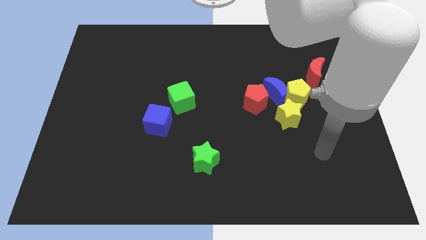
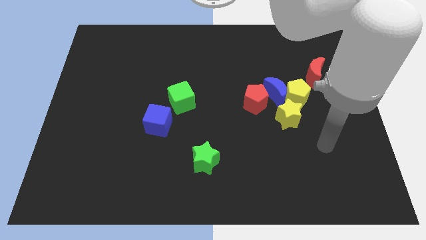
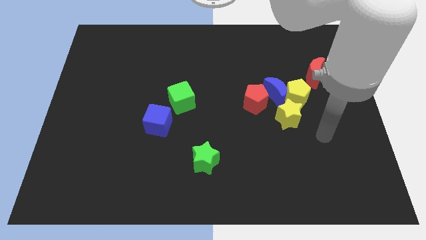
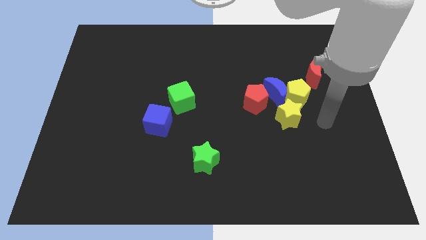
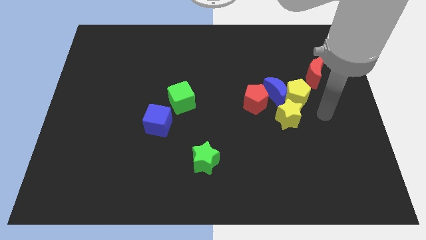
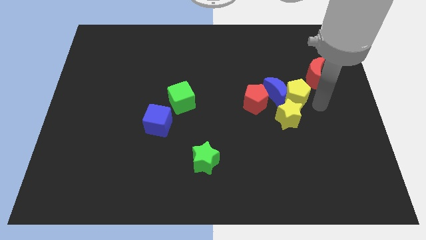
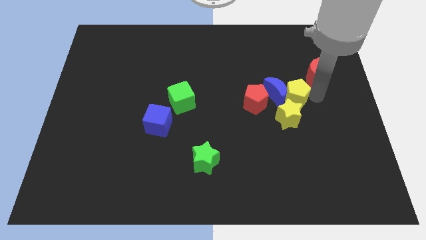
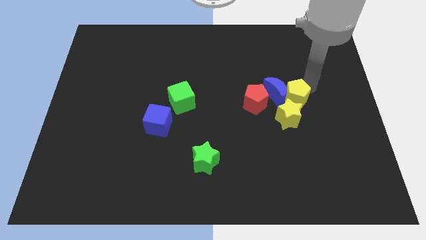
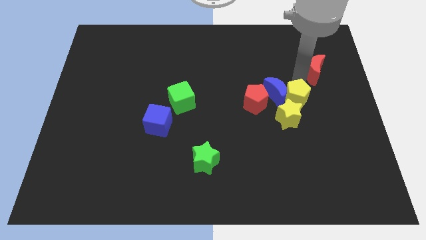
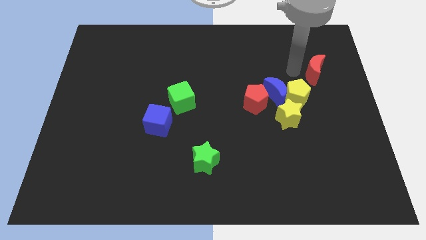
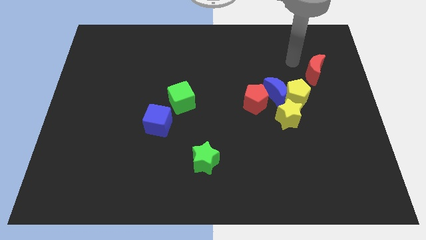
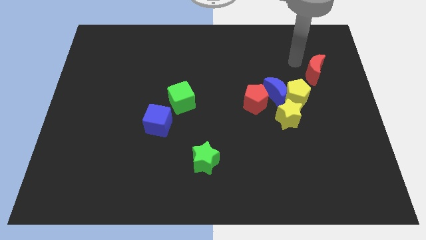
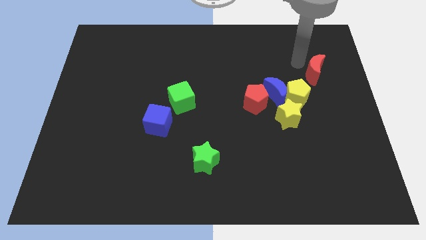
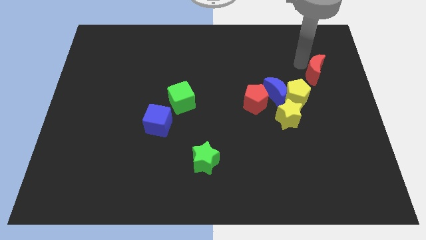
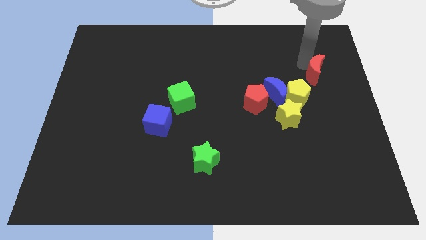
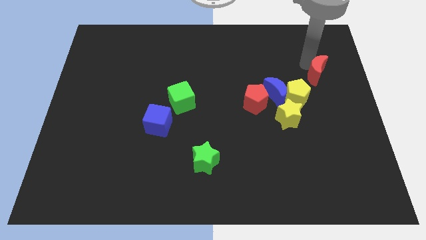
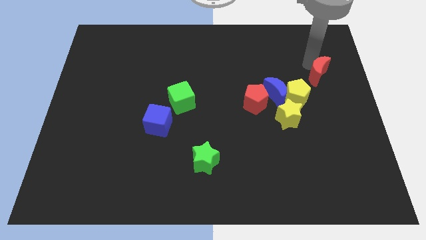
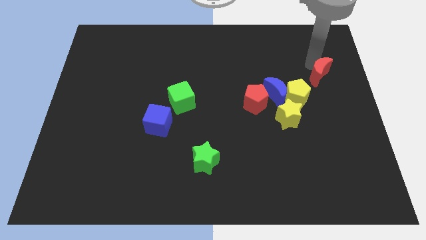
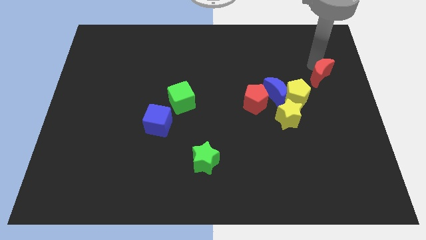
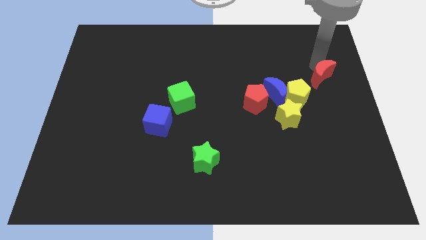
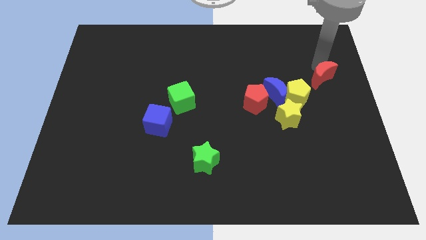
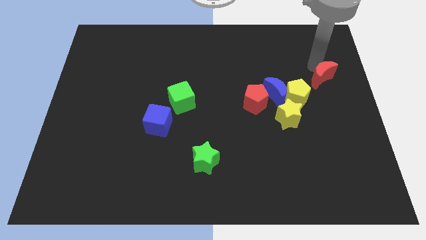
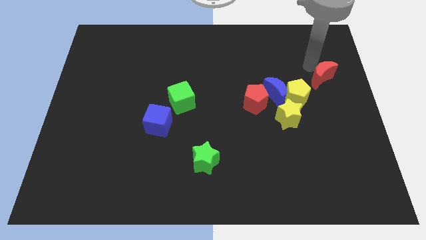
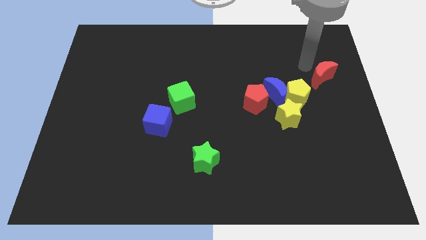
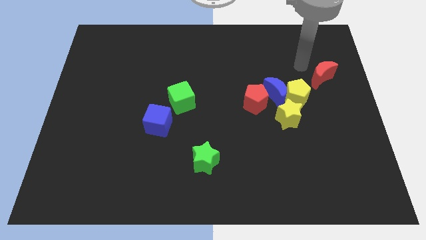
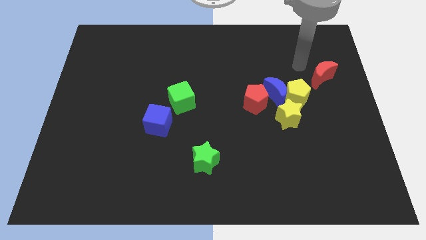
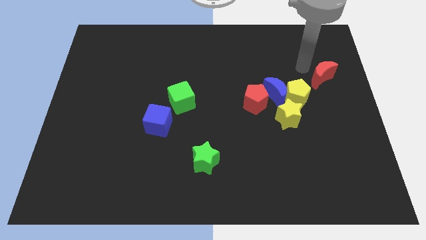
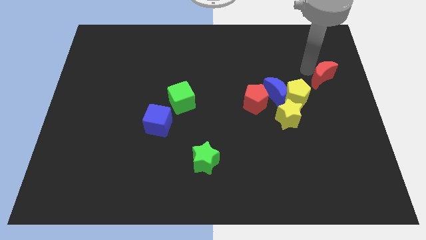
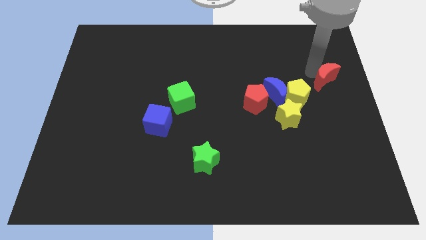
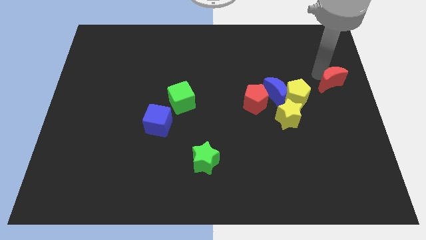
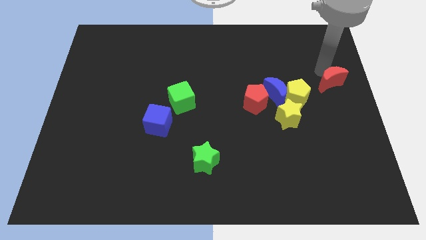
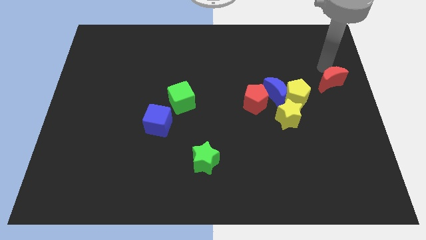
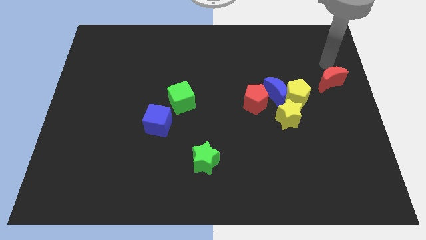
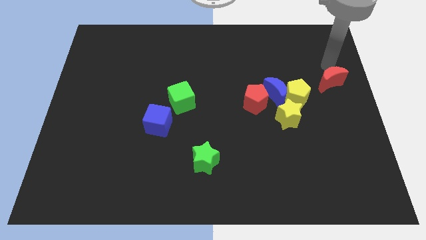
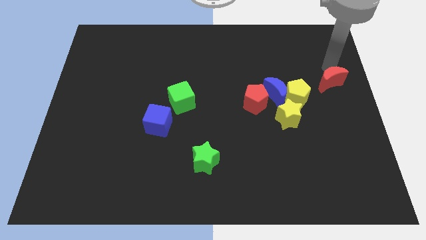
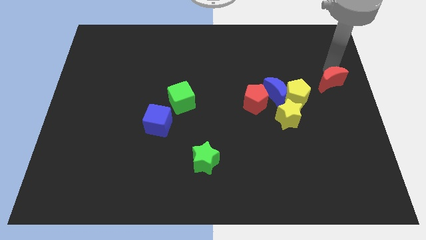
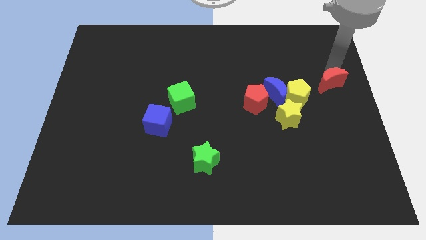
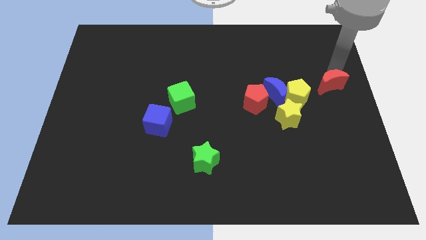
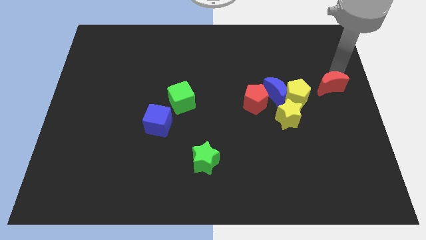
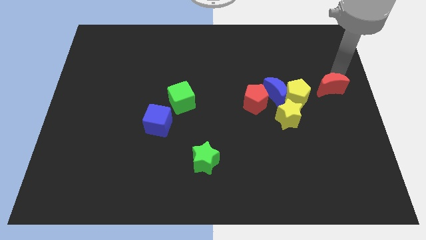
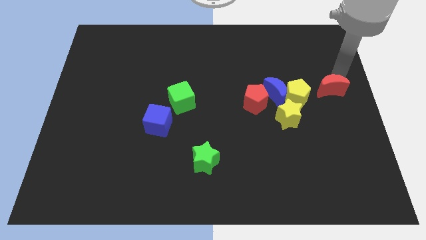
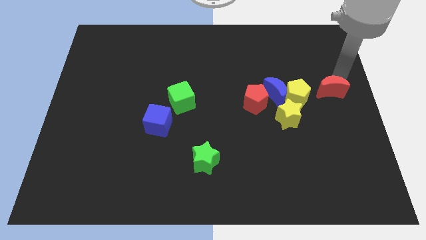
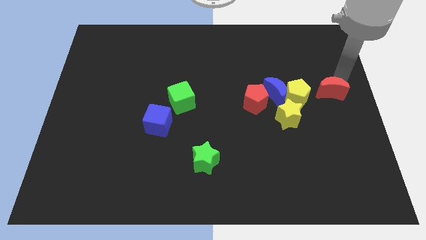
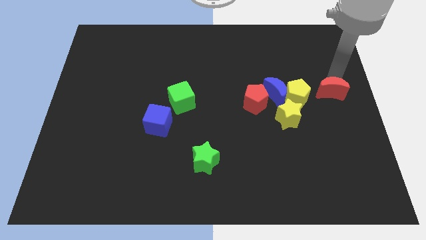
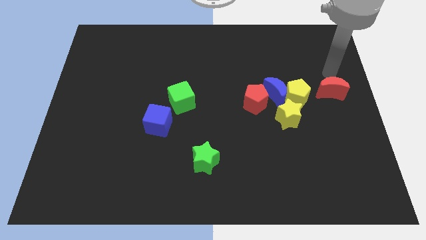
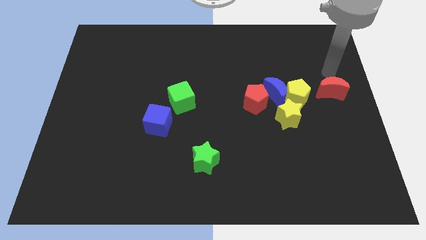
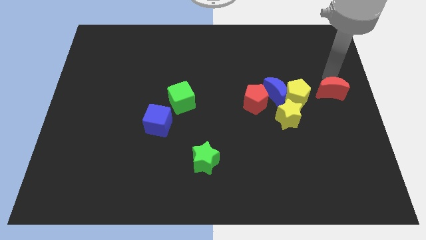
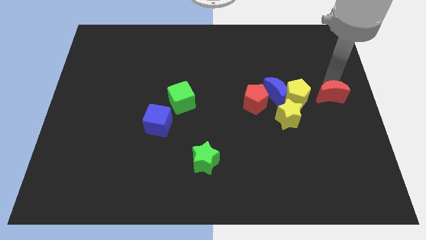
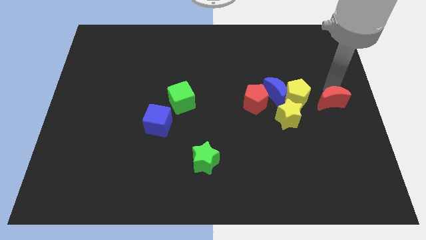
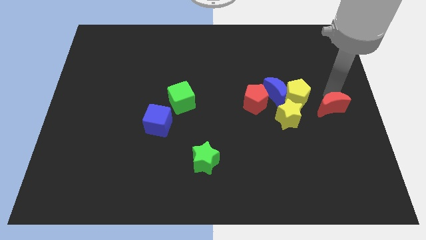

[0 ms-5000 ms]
put the red moon right of the yellow star

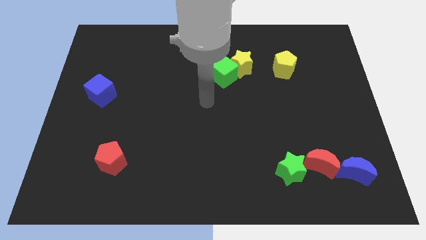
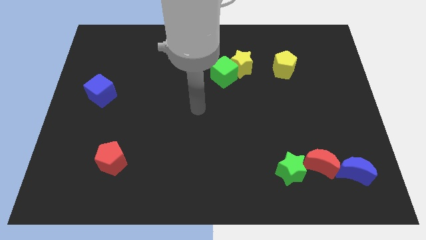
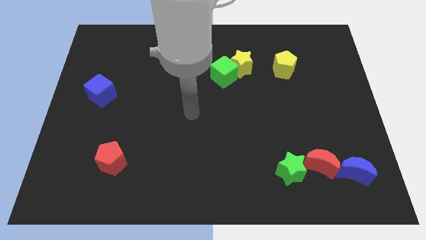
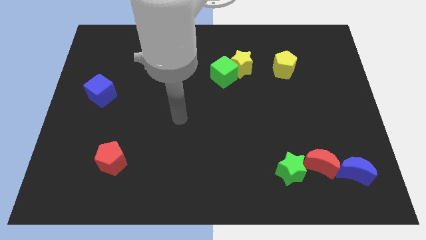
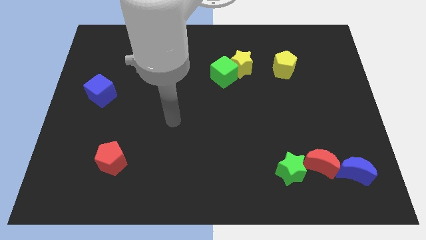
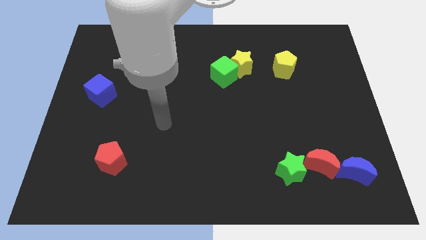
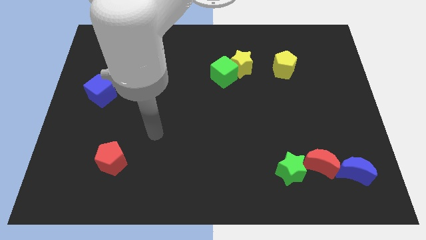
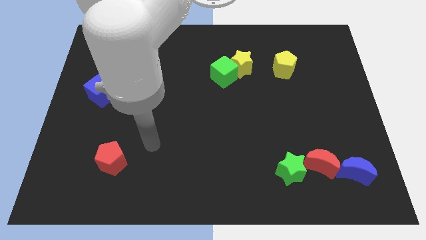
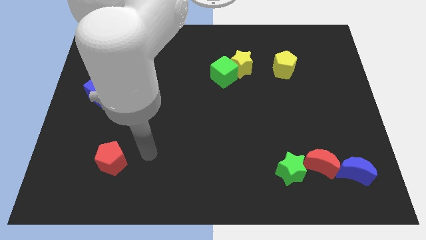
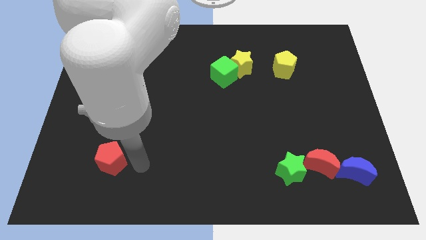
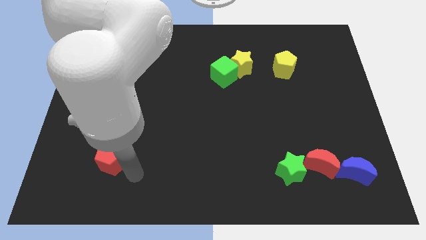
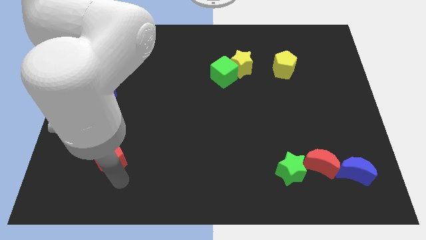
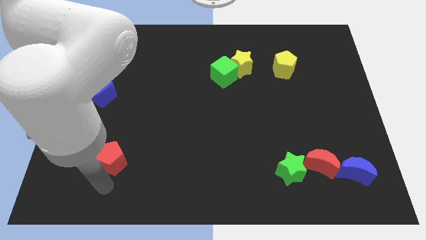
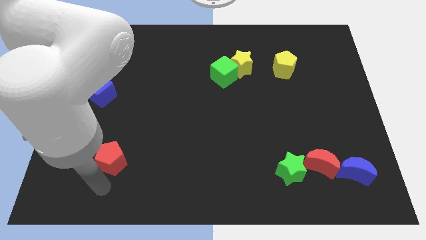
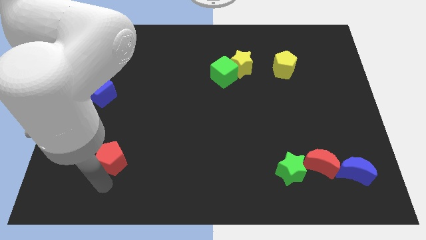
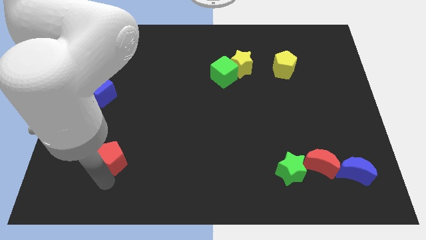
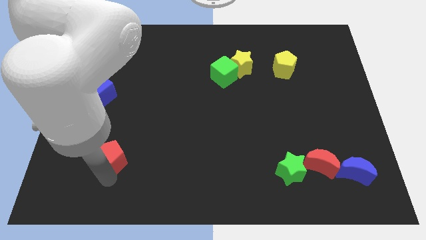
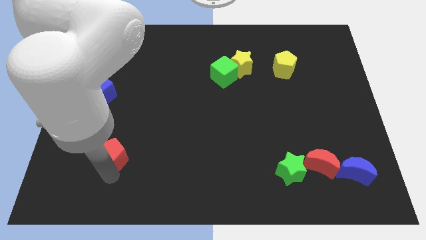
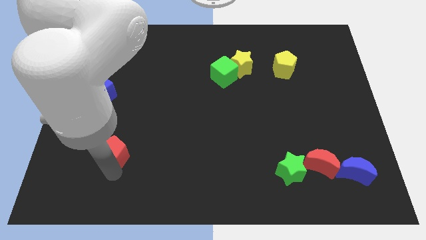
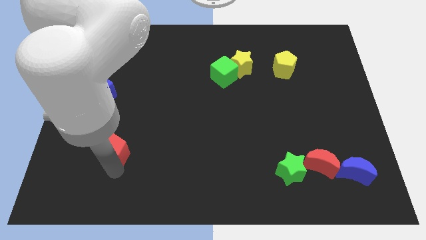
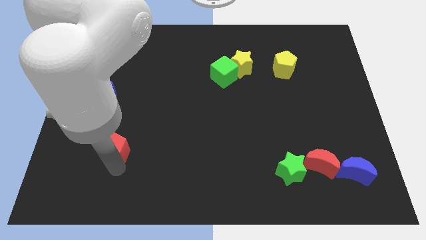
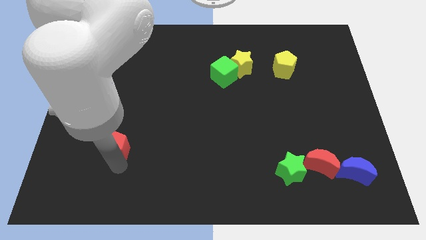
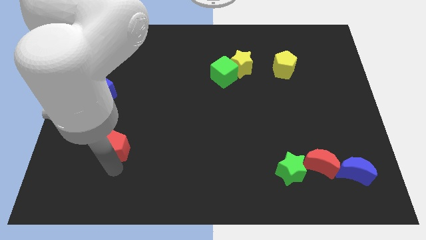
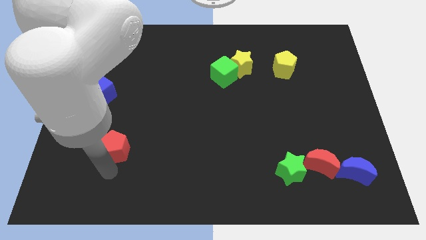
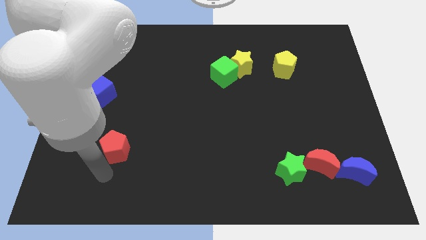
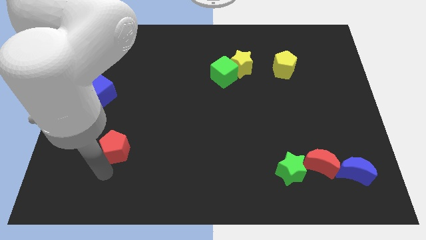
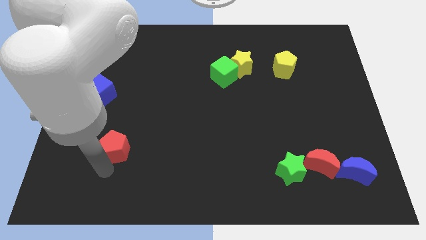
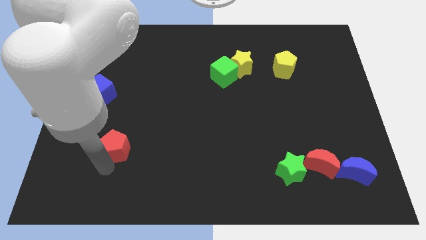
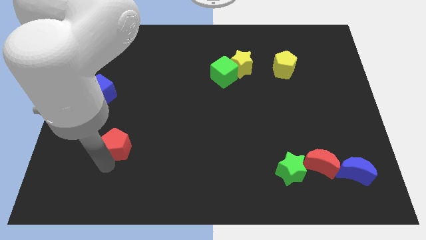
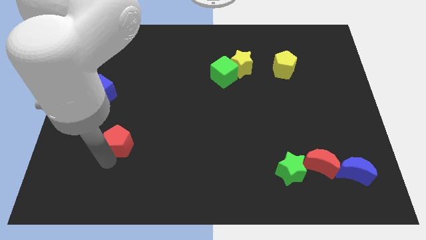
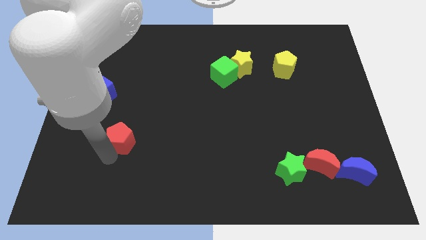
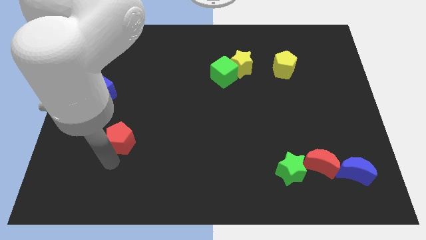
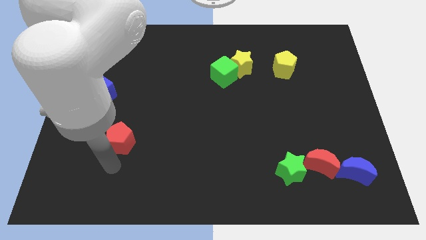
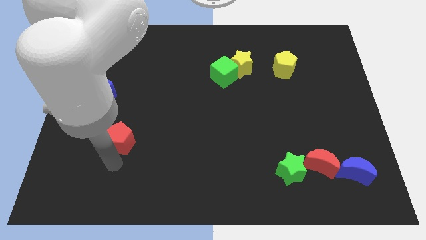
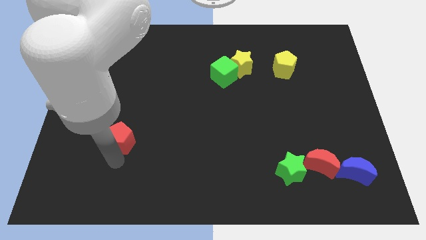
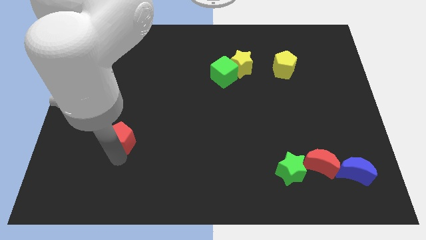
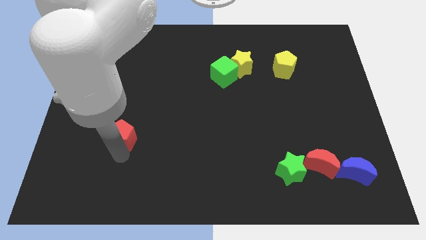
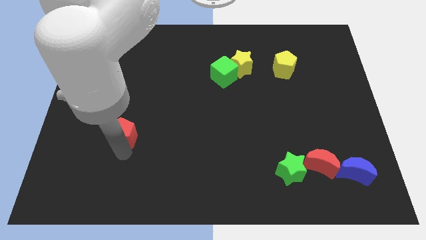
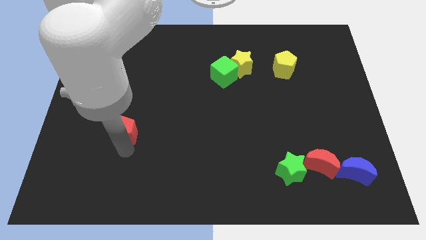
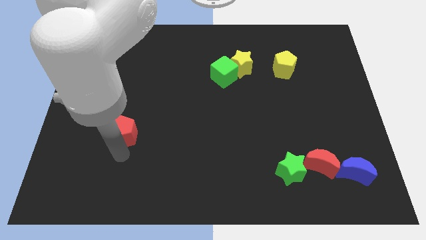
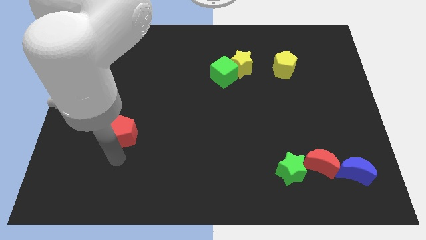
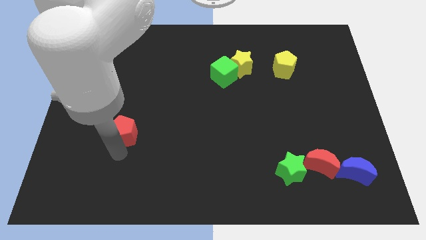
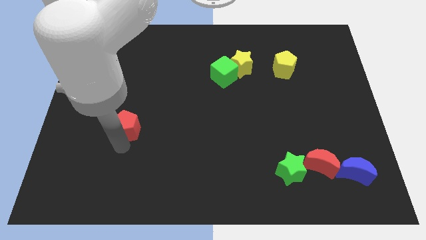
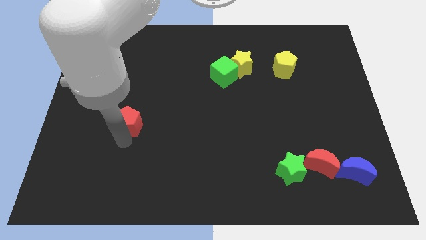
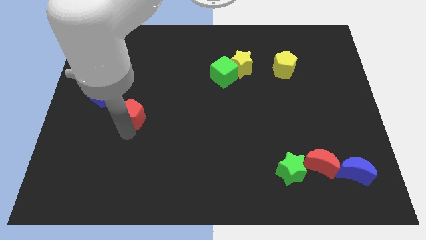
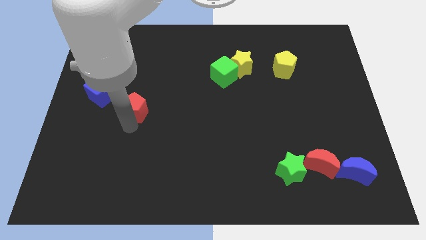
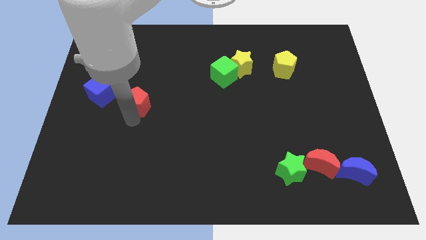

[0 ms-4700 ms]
push the red pentagon right of the blue cube
